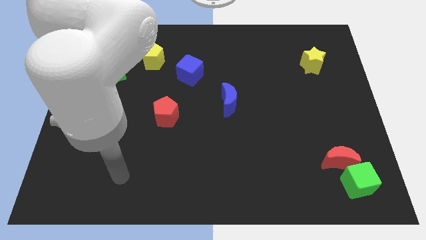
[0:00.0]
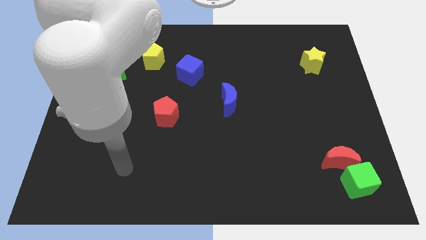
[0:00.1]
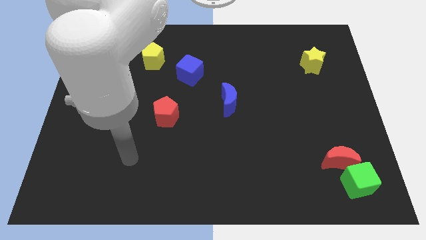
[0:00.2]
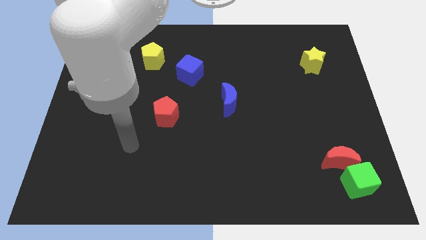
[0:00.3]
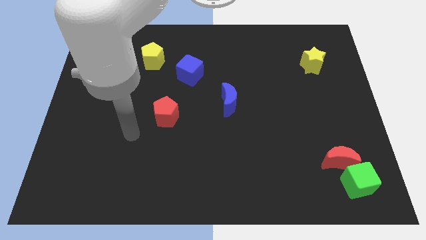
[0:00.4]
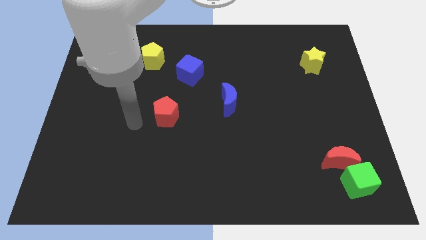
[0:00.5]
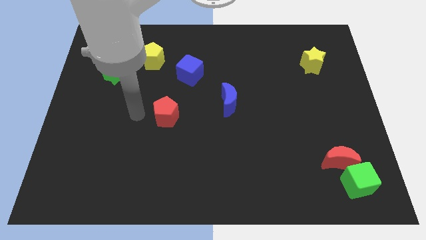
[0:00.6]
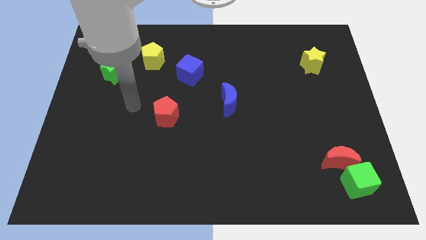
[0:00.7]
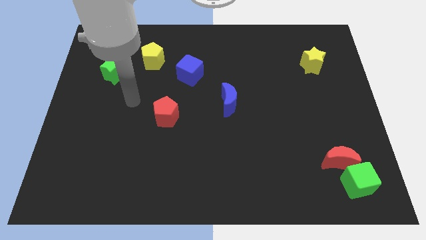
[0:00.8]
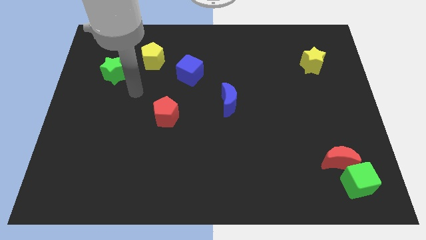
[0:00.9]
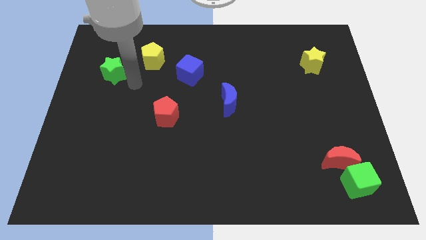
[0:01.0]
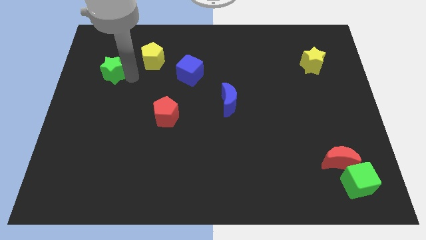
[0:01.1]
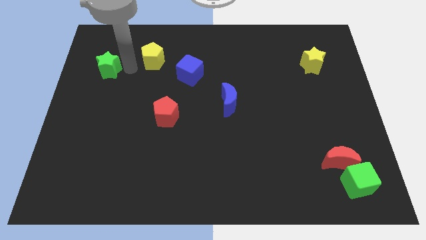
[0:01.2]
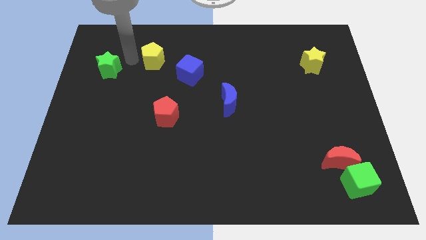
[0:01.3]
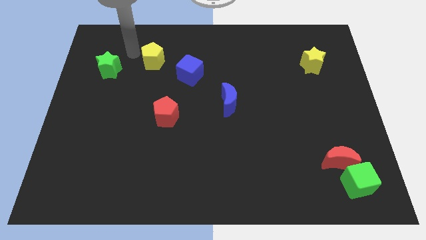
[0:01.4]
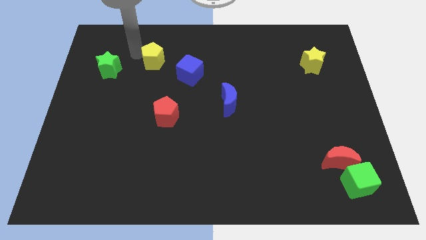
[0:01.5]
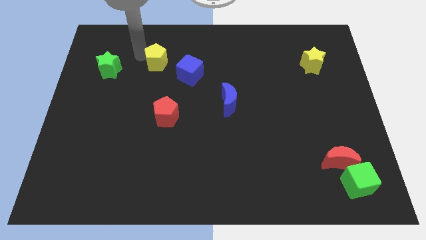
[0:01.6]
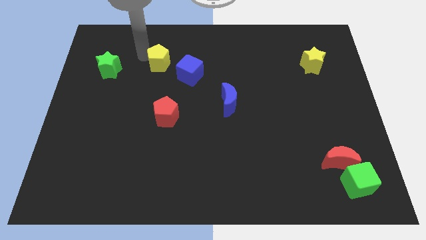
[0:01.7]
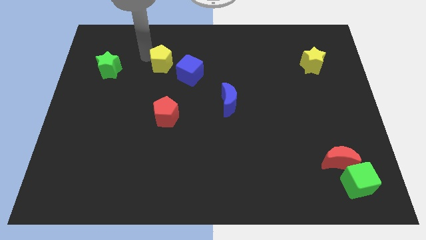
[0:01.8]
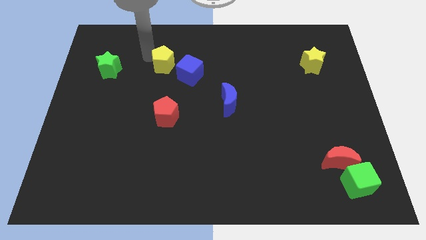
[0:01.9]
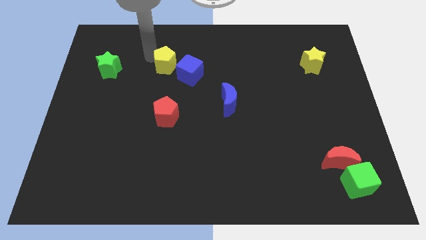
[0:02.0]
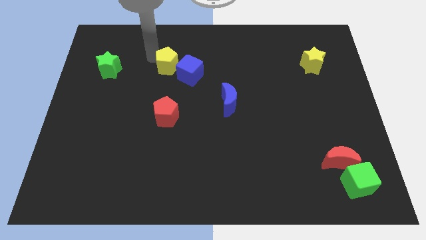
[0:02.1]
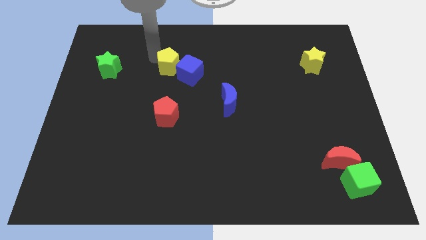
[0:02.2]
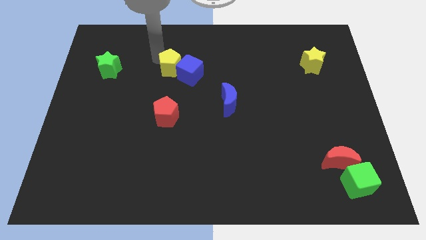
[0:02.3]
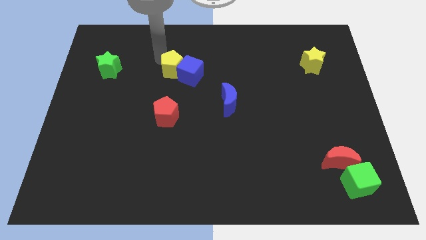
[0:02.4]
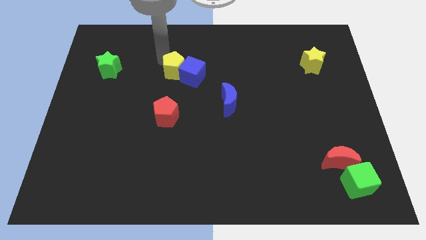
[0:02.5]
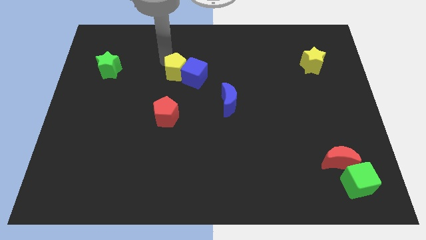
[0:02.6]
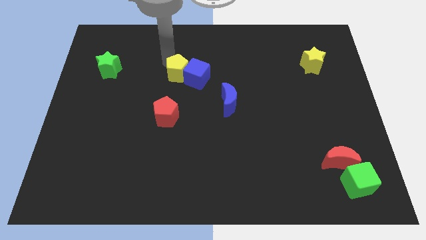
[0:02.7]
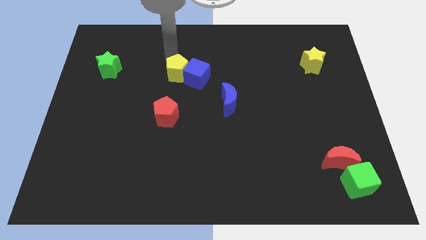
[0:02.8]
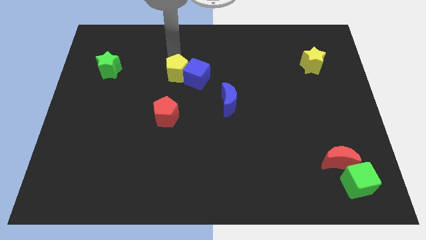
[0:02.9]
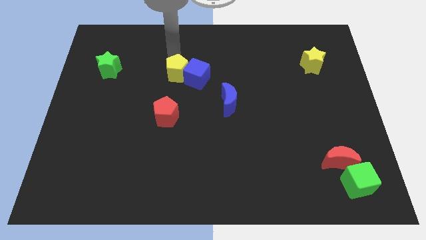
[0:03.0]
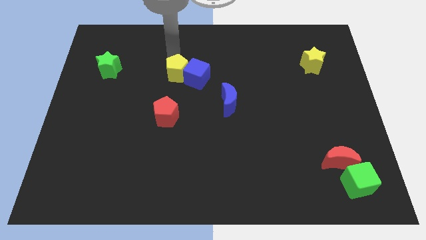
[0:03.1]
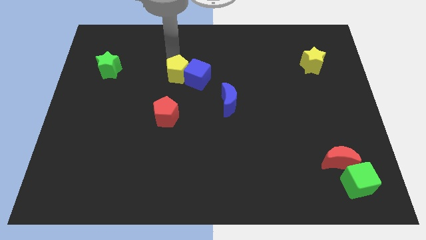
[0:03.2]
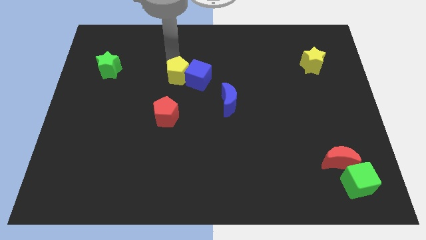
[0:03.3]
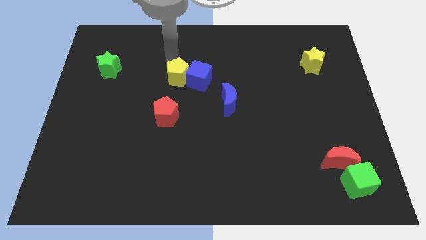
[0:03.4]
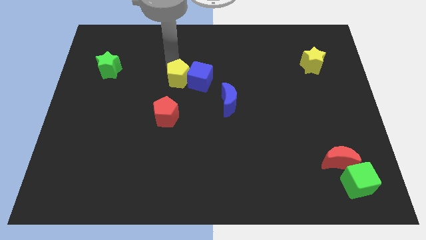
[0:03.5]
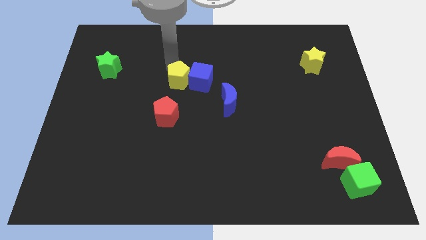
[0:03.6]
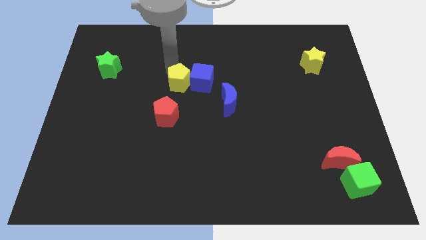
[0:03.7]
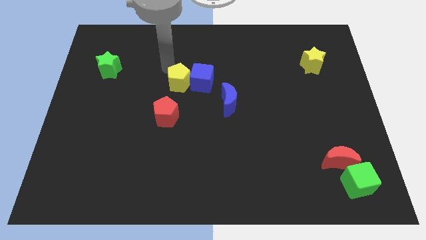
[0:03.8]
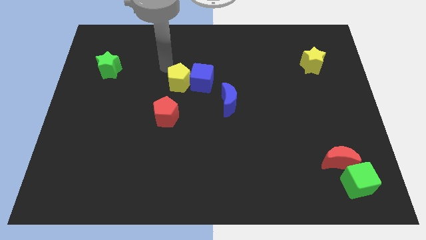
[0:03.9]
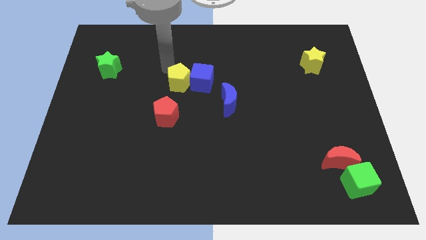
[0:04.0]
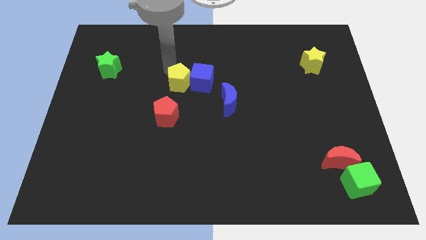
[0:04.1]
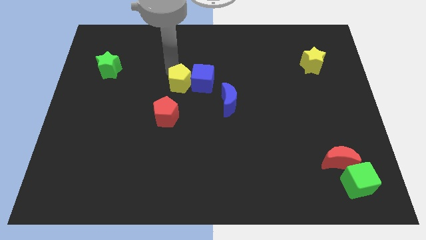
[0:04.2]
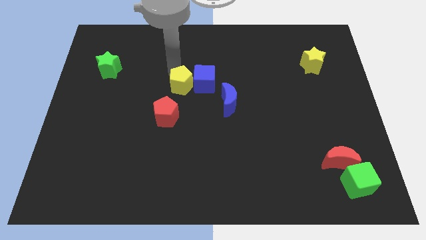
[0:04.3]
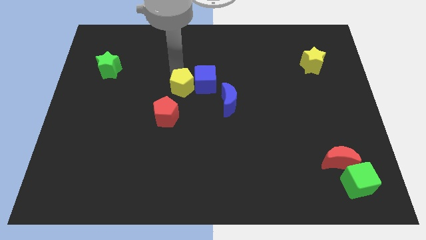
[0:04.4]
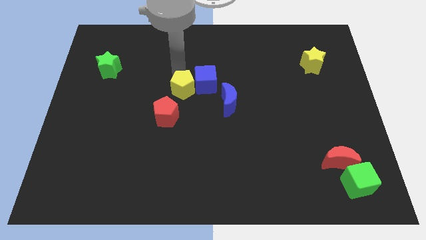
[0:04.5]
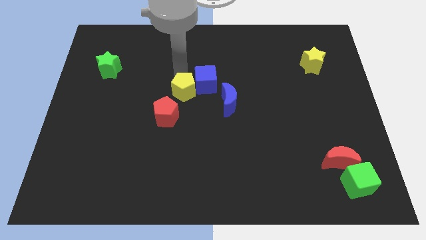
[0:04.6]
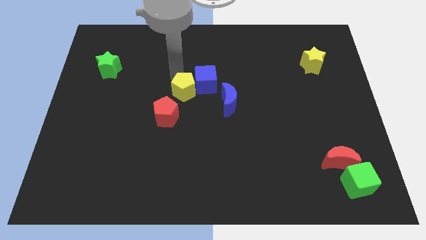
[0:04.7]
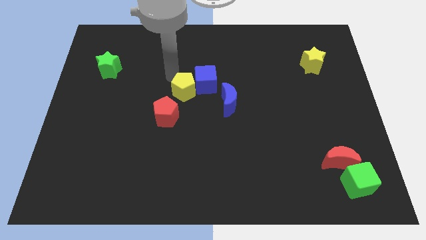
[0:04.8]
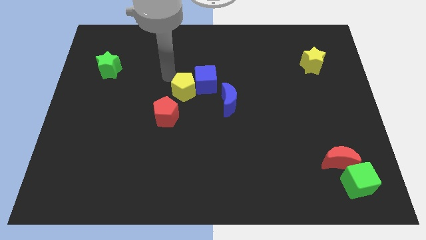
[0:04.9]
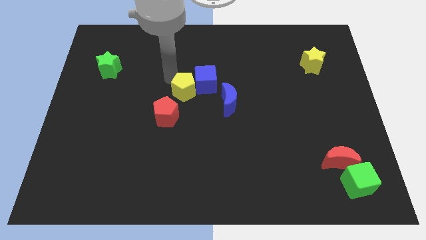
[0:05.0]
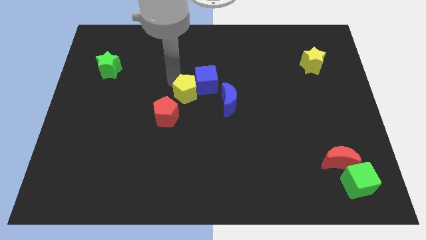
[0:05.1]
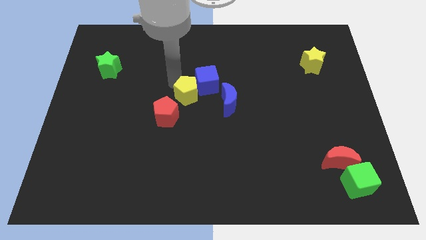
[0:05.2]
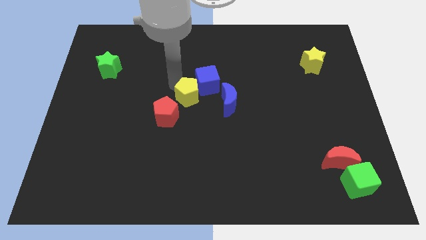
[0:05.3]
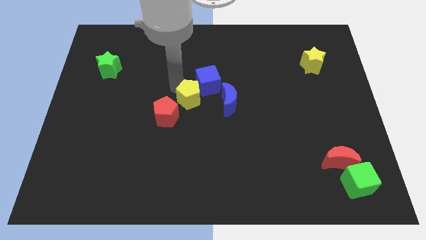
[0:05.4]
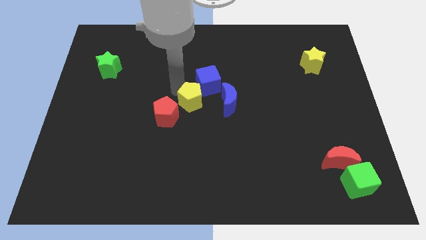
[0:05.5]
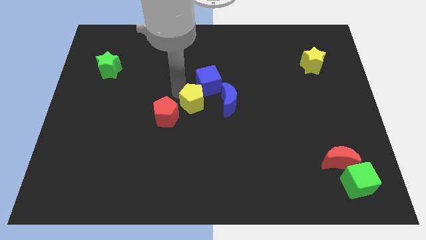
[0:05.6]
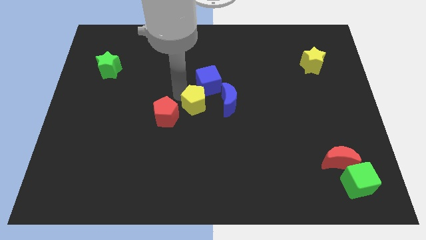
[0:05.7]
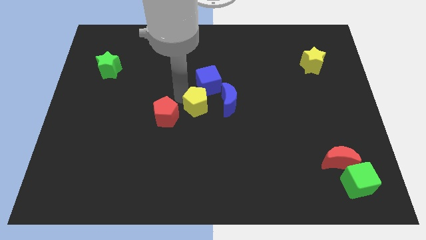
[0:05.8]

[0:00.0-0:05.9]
put the yellow pentagon to the bottom left side of the blue moon

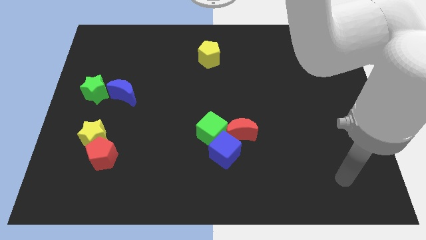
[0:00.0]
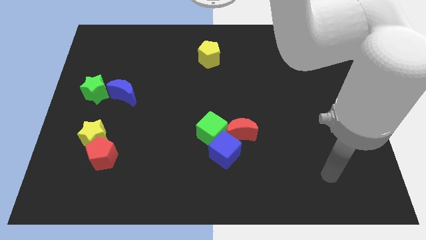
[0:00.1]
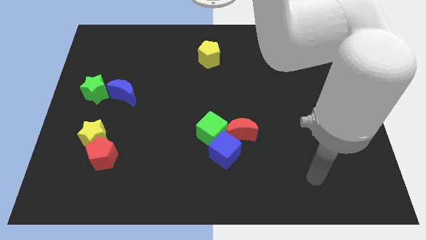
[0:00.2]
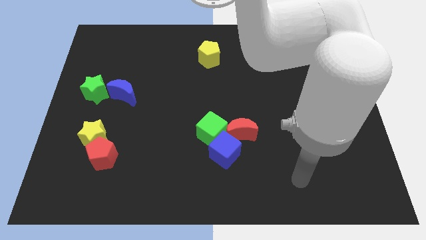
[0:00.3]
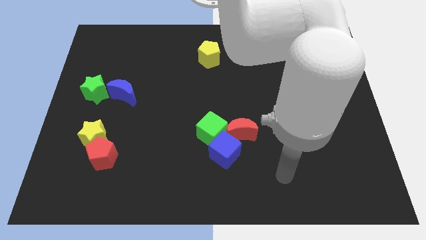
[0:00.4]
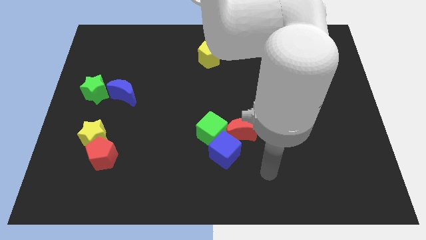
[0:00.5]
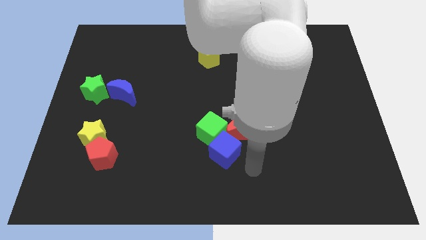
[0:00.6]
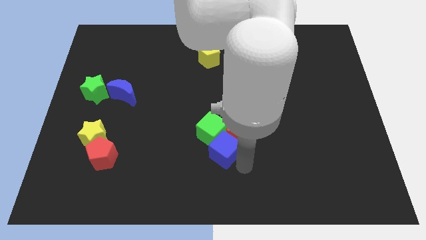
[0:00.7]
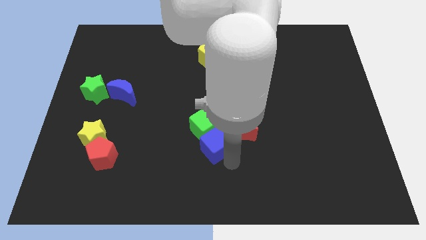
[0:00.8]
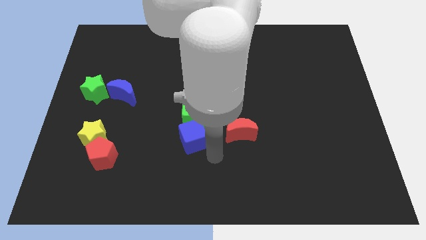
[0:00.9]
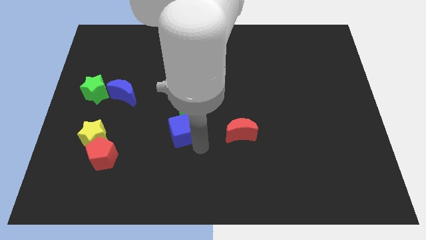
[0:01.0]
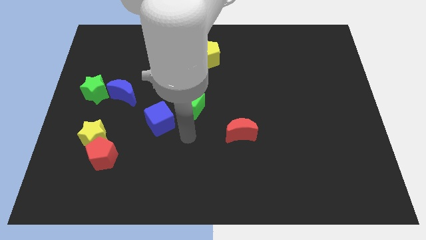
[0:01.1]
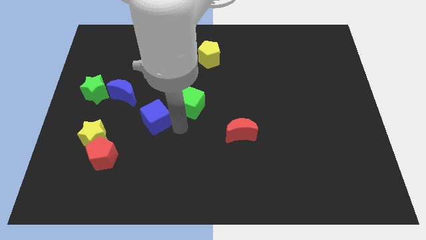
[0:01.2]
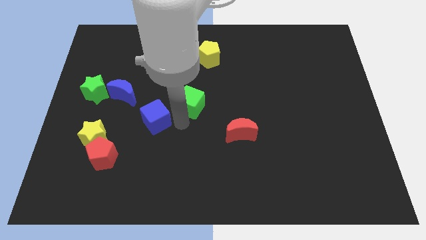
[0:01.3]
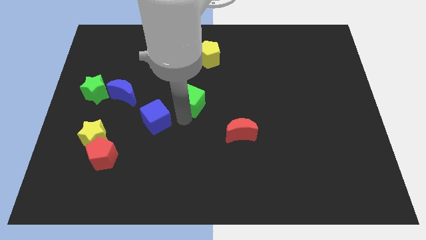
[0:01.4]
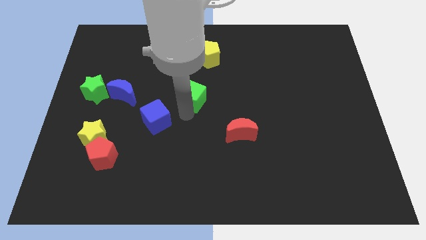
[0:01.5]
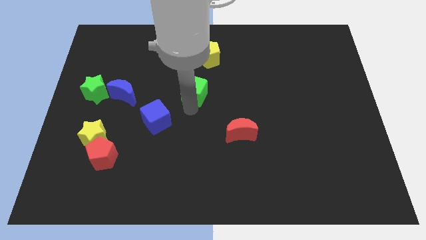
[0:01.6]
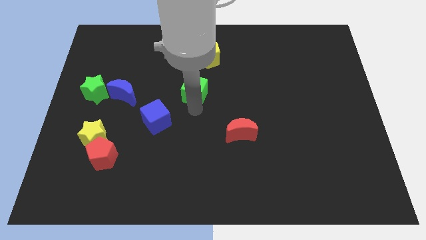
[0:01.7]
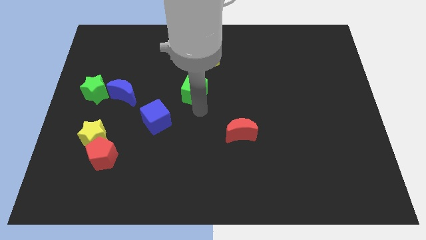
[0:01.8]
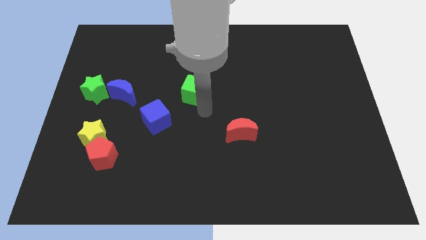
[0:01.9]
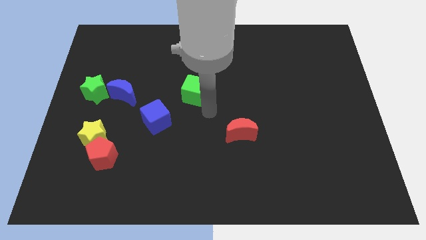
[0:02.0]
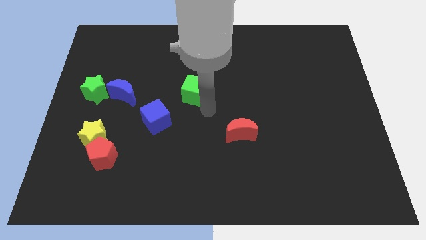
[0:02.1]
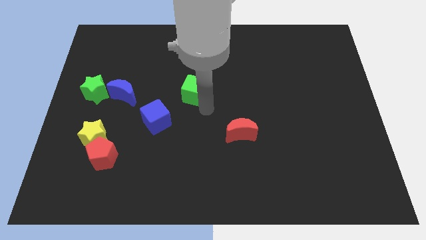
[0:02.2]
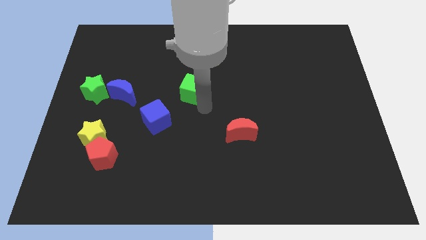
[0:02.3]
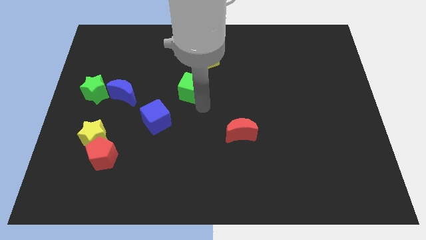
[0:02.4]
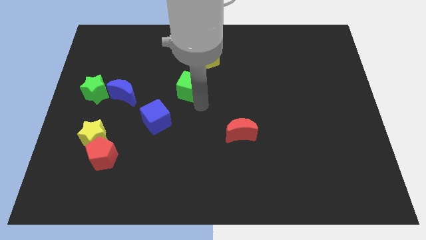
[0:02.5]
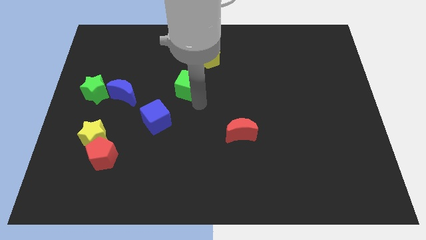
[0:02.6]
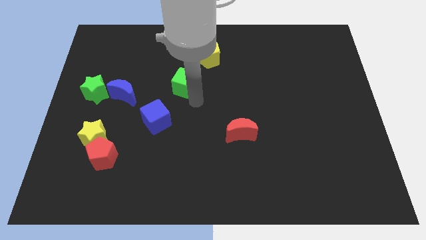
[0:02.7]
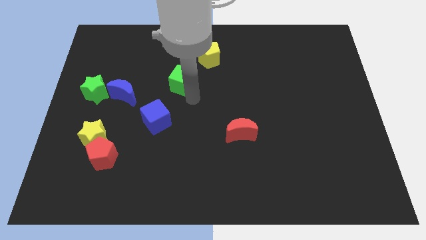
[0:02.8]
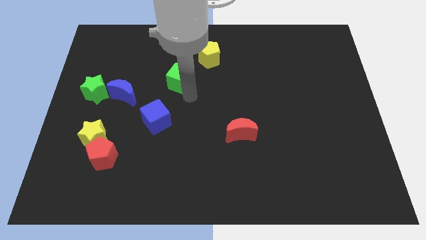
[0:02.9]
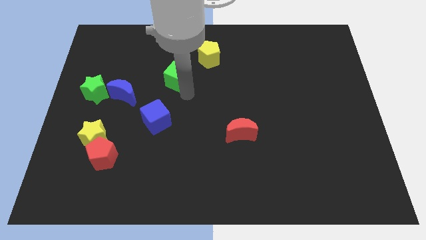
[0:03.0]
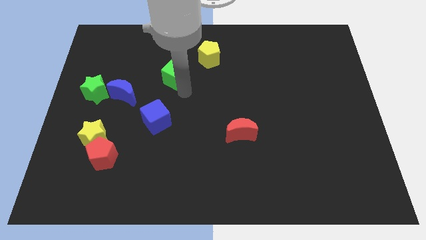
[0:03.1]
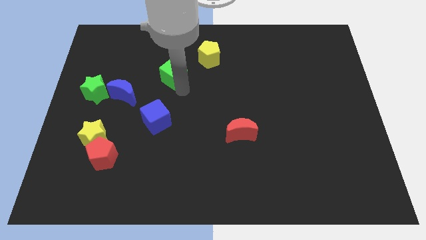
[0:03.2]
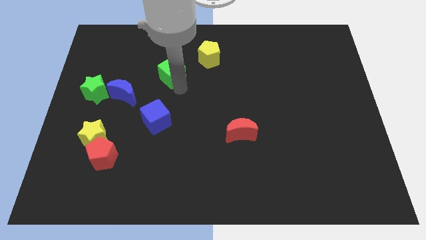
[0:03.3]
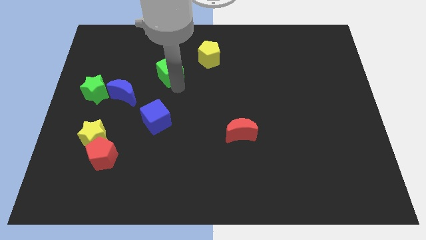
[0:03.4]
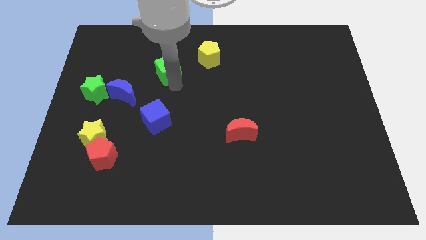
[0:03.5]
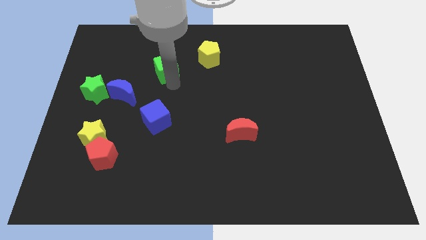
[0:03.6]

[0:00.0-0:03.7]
push the green cube left of the yellow pentagon
